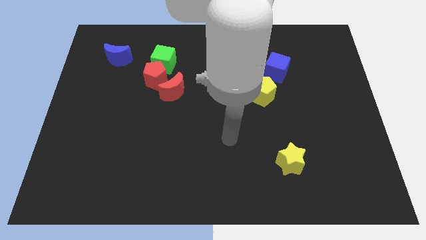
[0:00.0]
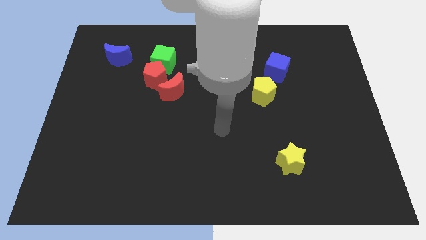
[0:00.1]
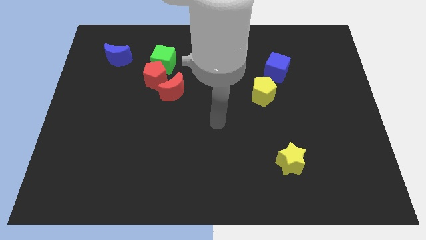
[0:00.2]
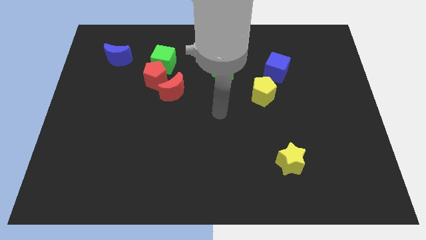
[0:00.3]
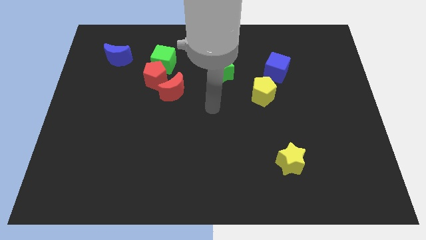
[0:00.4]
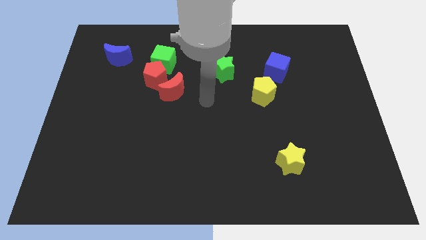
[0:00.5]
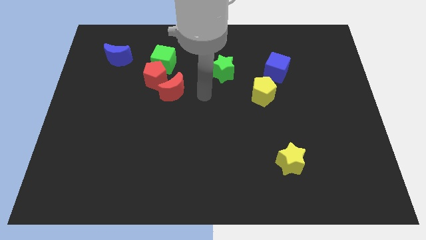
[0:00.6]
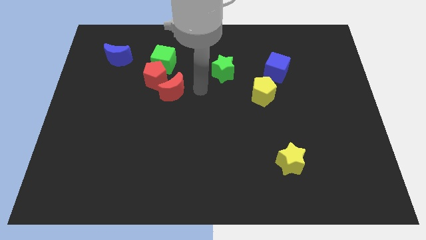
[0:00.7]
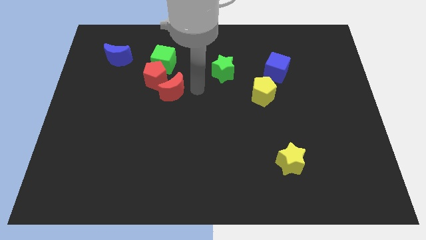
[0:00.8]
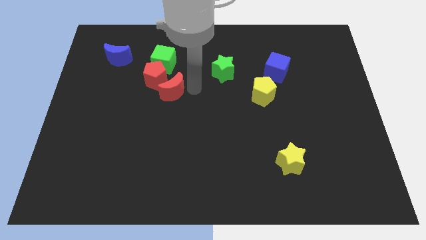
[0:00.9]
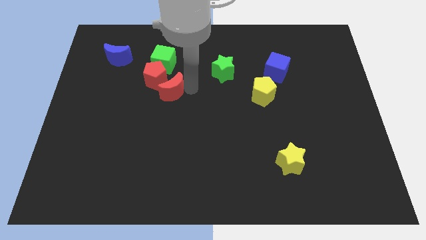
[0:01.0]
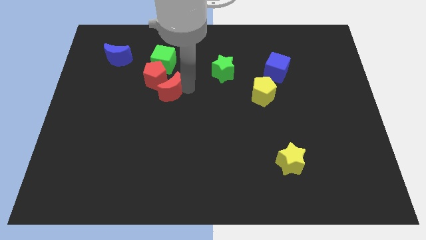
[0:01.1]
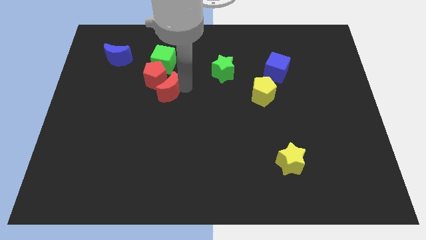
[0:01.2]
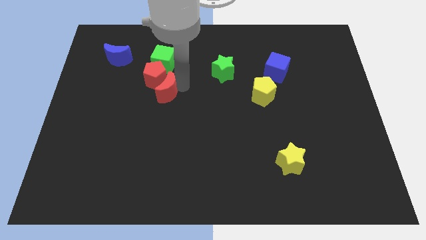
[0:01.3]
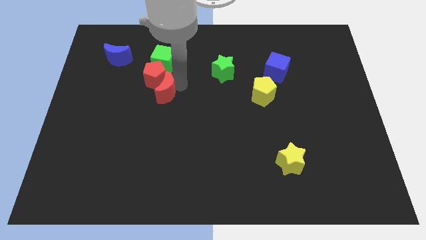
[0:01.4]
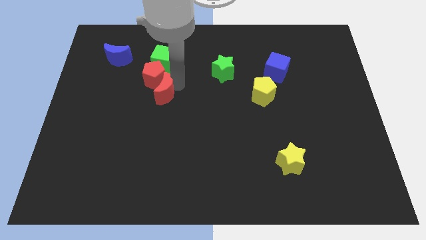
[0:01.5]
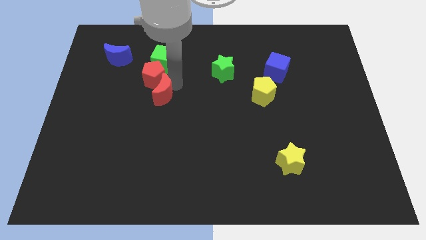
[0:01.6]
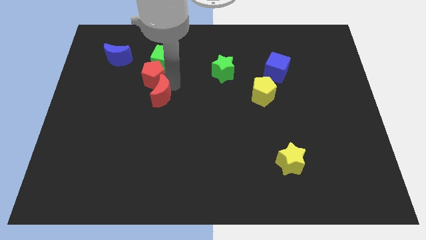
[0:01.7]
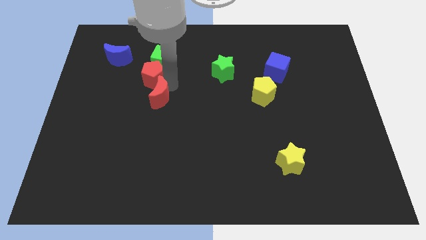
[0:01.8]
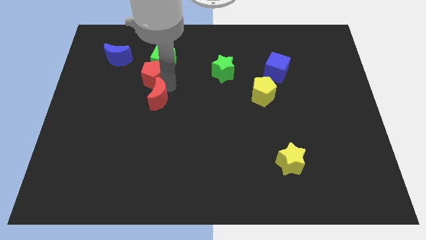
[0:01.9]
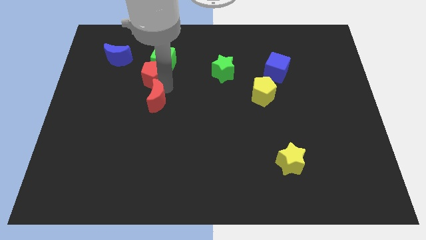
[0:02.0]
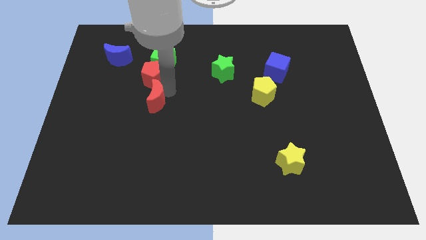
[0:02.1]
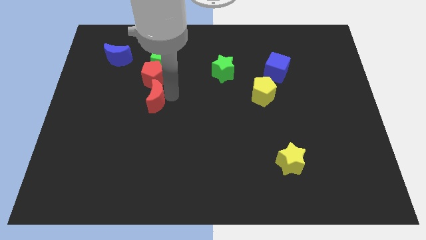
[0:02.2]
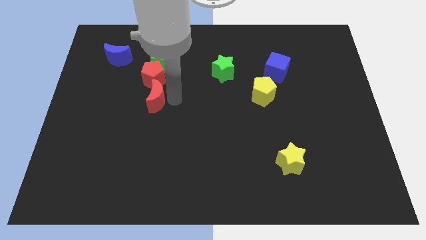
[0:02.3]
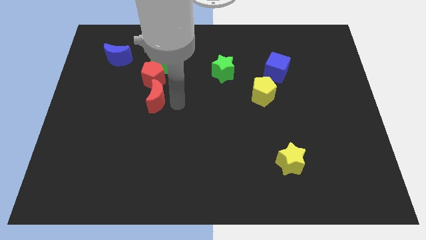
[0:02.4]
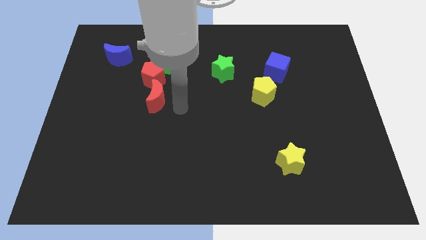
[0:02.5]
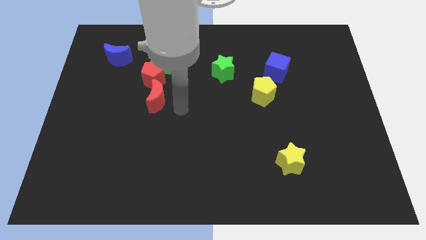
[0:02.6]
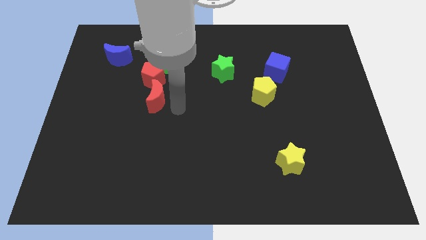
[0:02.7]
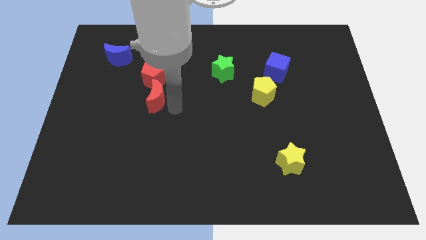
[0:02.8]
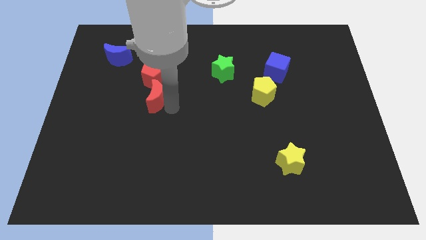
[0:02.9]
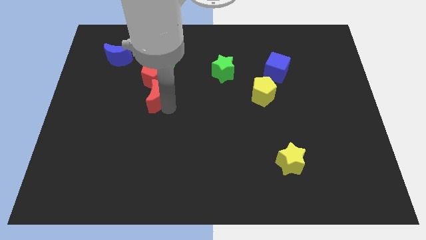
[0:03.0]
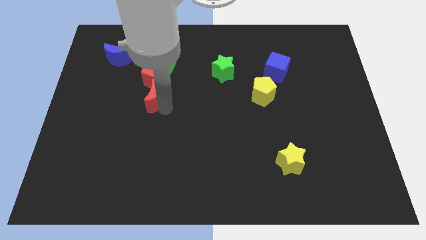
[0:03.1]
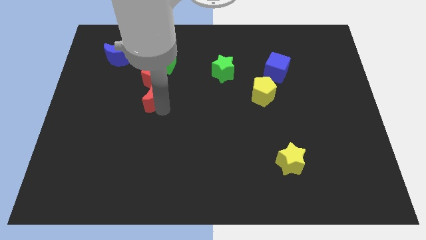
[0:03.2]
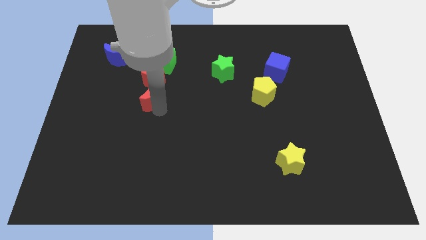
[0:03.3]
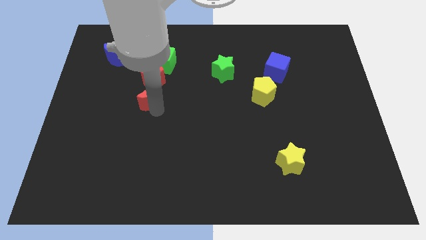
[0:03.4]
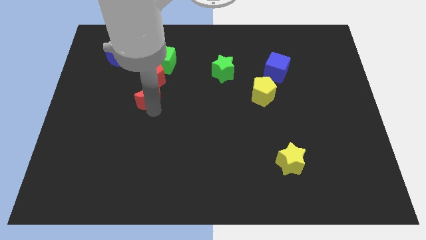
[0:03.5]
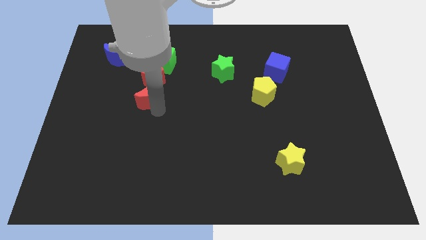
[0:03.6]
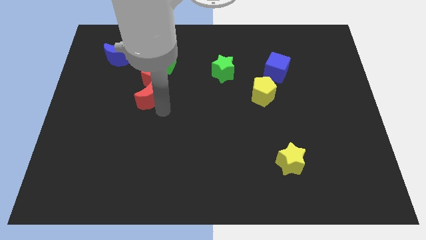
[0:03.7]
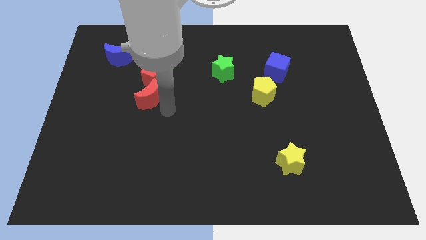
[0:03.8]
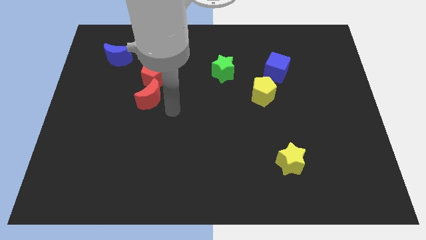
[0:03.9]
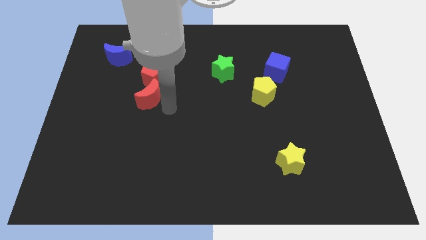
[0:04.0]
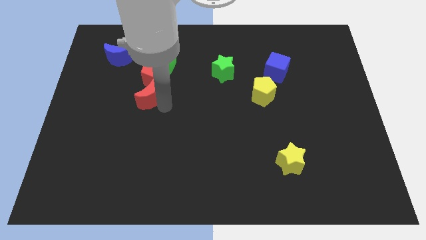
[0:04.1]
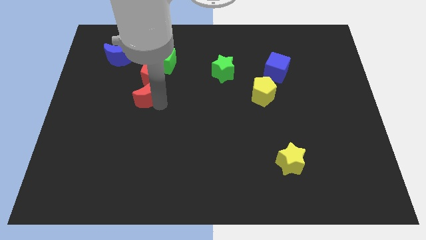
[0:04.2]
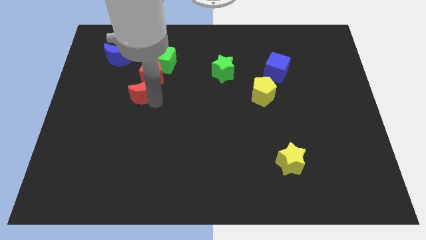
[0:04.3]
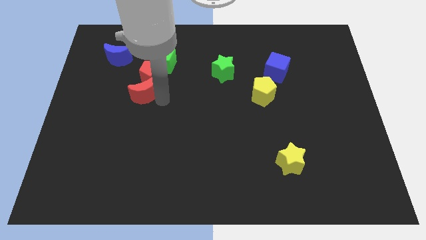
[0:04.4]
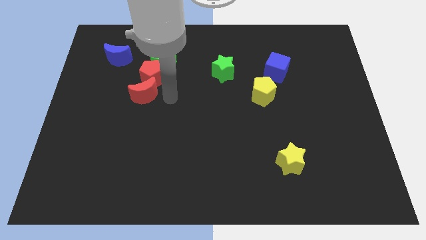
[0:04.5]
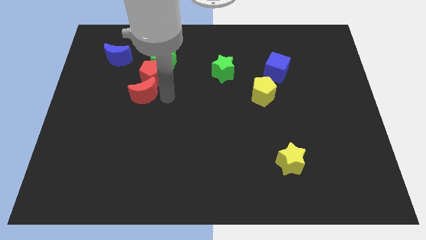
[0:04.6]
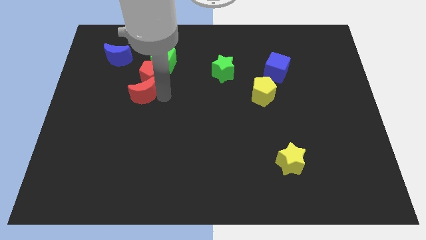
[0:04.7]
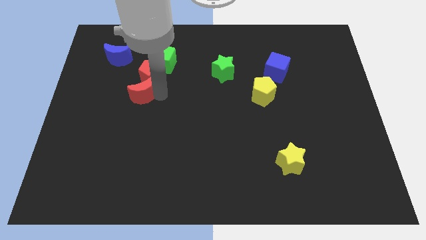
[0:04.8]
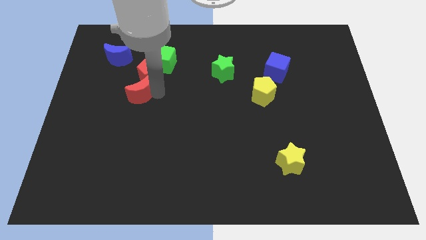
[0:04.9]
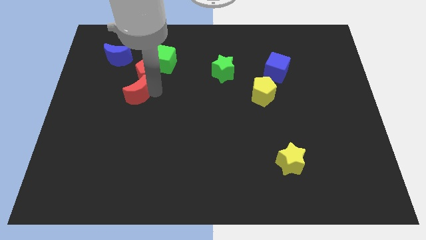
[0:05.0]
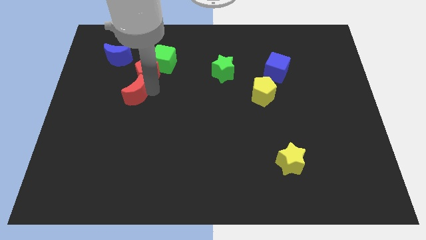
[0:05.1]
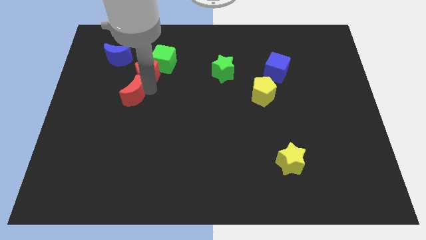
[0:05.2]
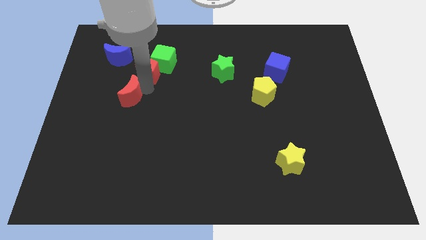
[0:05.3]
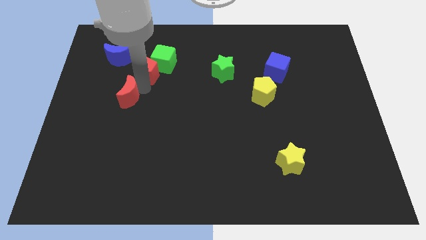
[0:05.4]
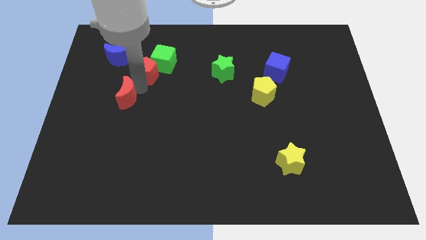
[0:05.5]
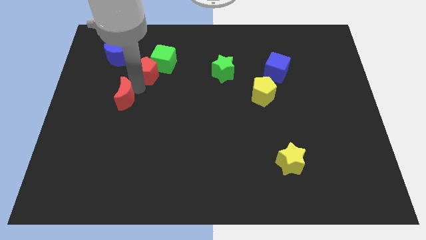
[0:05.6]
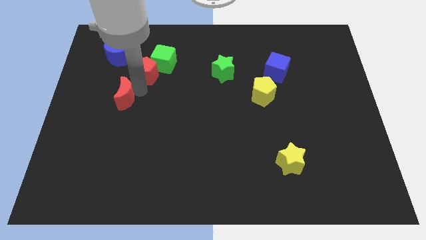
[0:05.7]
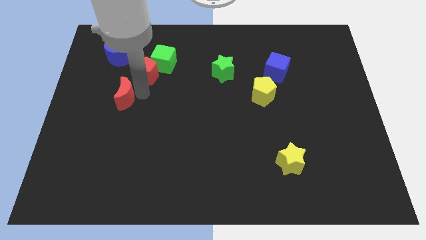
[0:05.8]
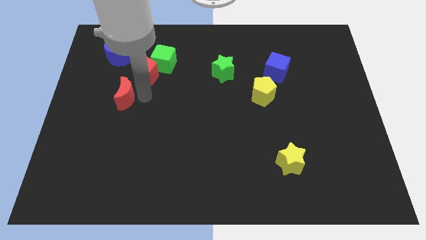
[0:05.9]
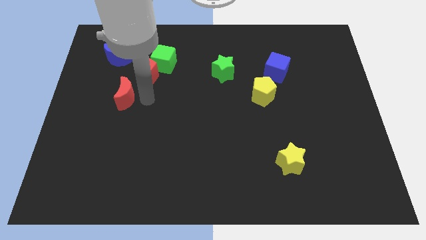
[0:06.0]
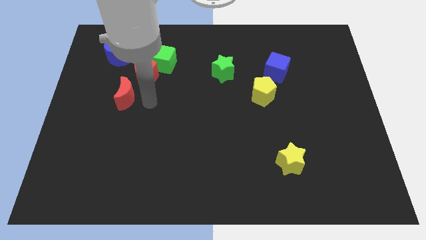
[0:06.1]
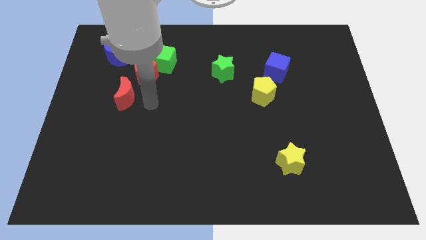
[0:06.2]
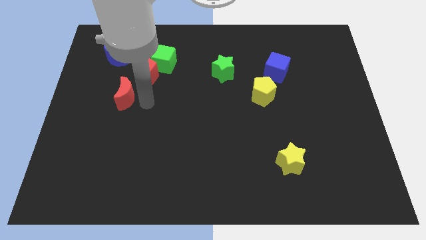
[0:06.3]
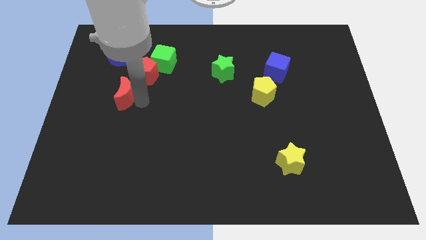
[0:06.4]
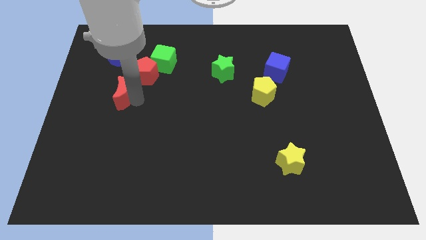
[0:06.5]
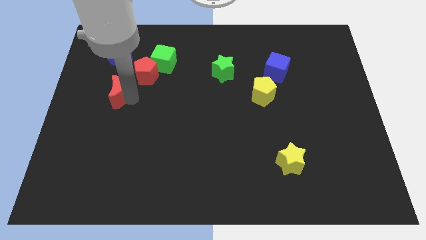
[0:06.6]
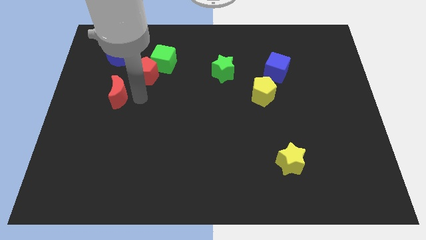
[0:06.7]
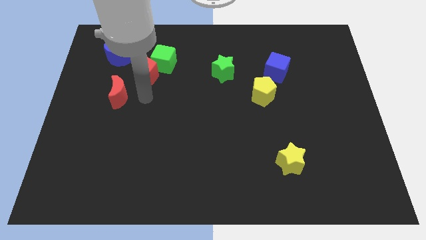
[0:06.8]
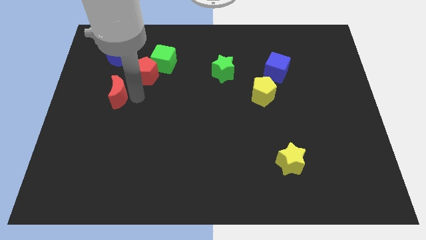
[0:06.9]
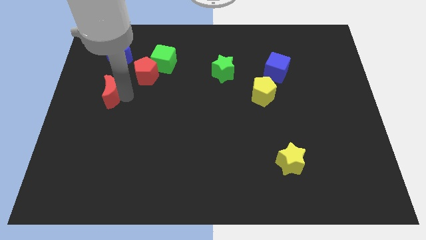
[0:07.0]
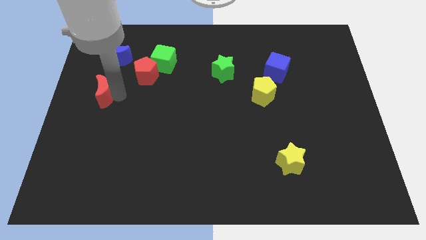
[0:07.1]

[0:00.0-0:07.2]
put the red moon to the center left

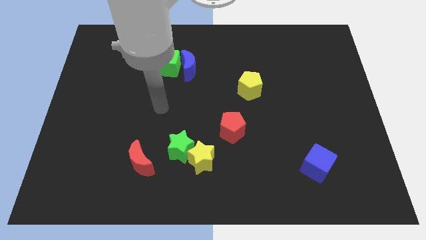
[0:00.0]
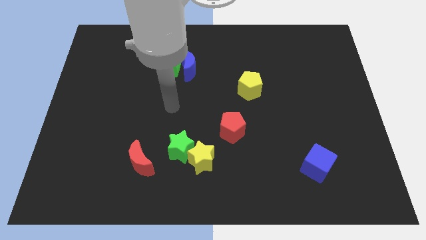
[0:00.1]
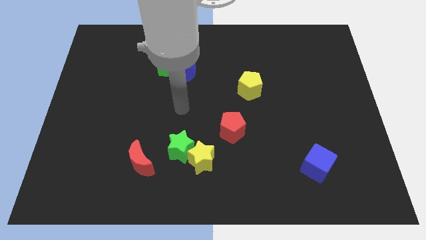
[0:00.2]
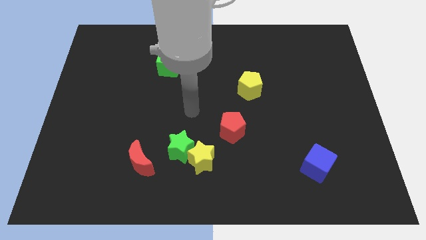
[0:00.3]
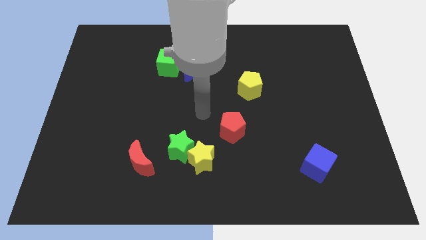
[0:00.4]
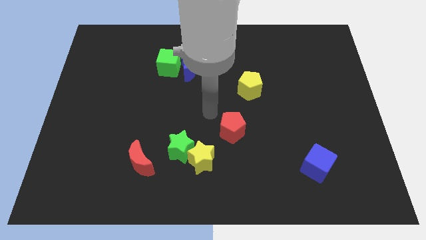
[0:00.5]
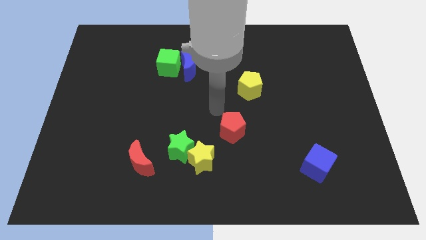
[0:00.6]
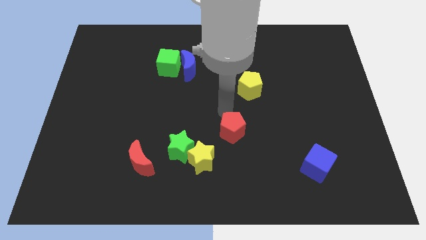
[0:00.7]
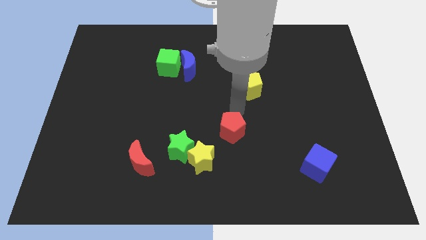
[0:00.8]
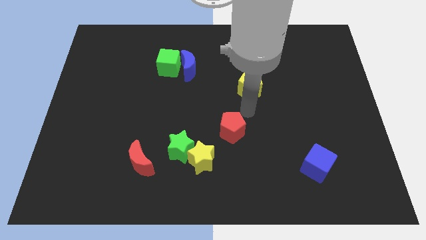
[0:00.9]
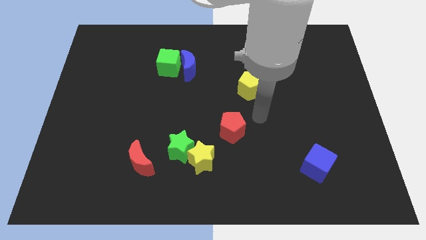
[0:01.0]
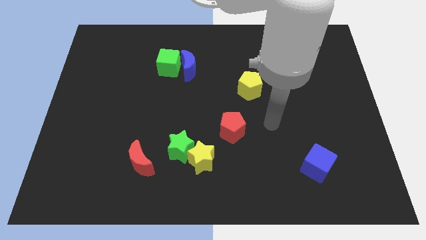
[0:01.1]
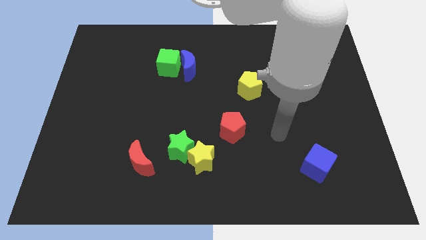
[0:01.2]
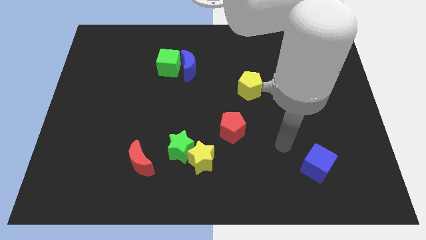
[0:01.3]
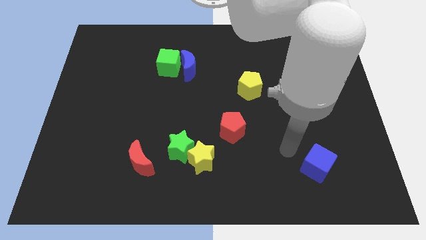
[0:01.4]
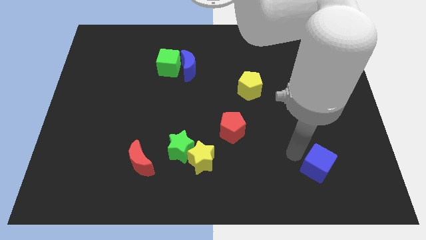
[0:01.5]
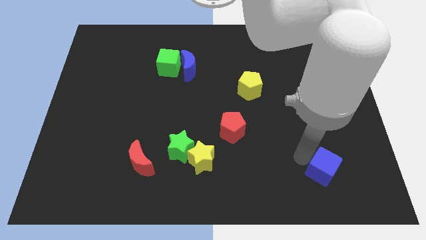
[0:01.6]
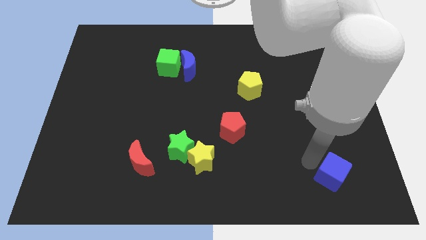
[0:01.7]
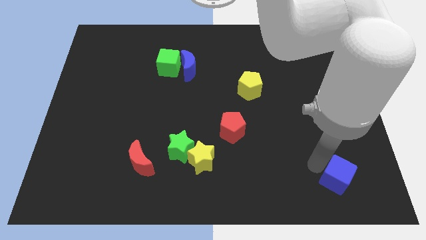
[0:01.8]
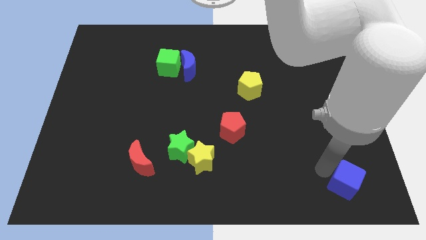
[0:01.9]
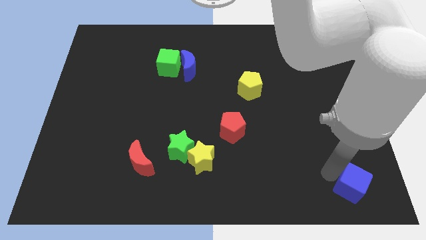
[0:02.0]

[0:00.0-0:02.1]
put the blue cube to the bottom right
